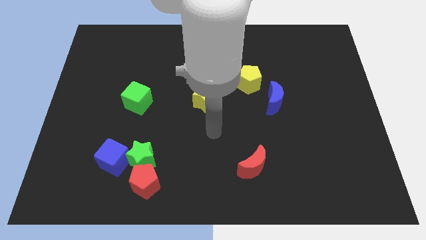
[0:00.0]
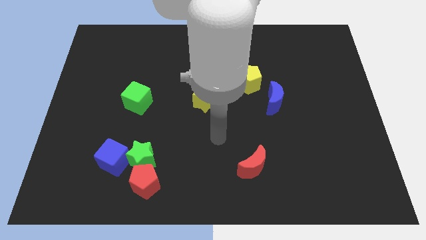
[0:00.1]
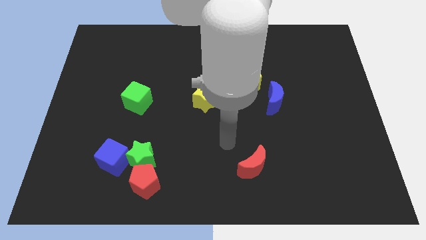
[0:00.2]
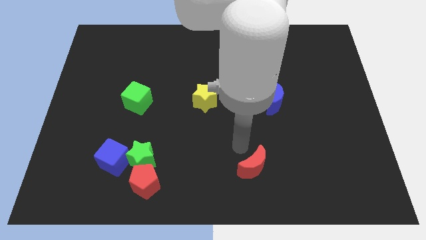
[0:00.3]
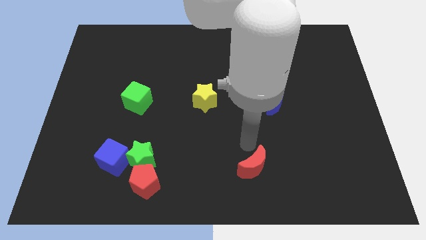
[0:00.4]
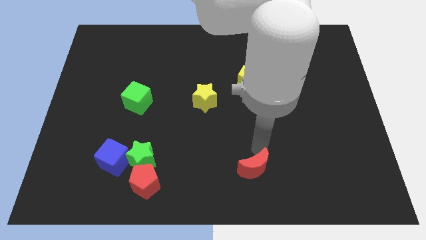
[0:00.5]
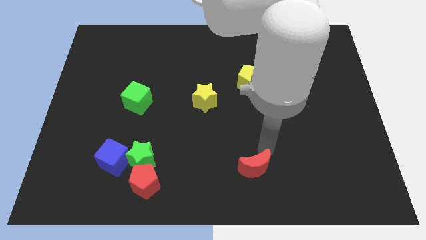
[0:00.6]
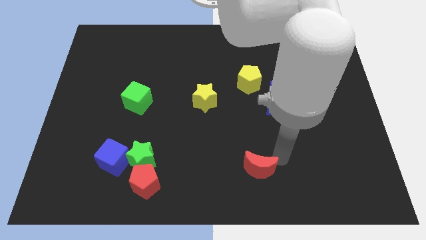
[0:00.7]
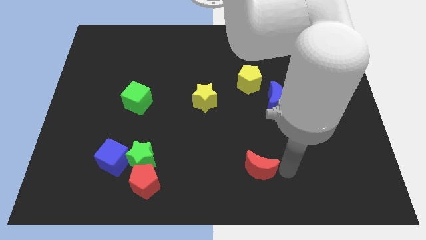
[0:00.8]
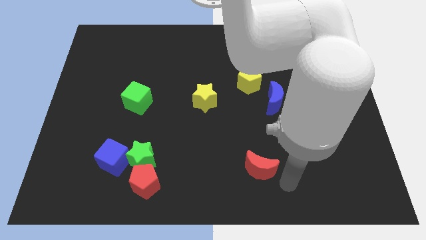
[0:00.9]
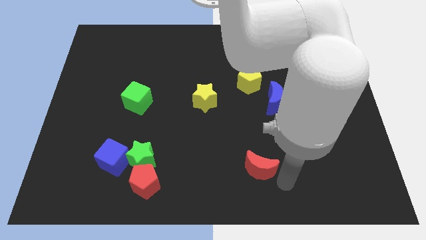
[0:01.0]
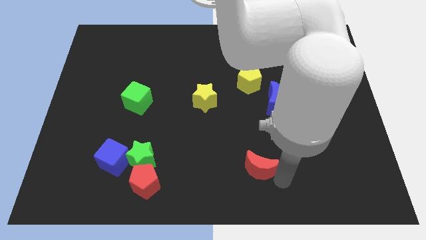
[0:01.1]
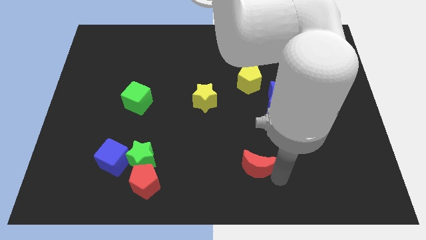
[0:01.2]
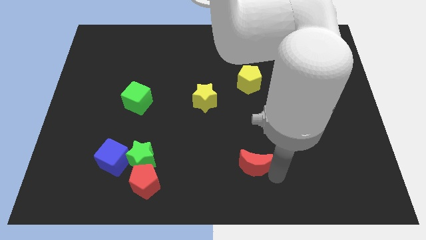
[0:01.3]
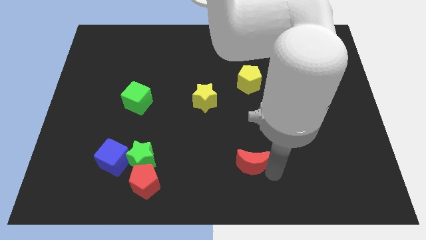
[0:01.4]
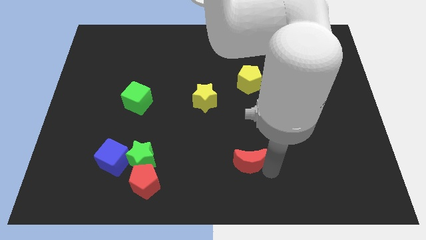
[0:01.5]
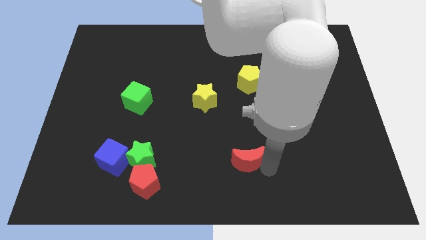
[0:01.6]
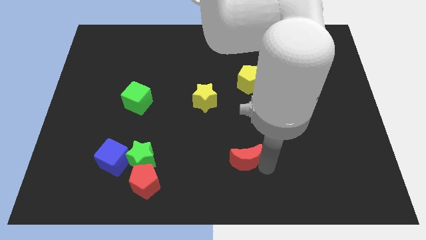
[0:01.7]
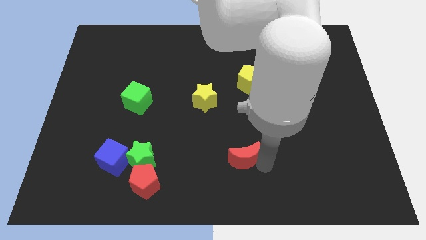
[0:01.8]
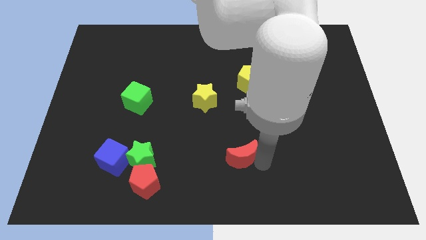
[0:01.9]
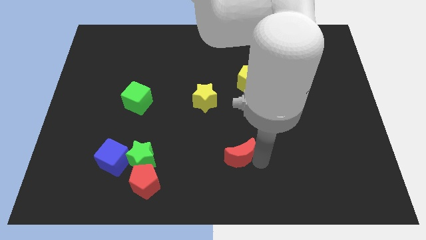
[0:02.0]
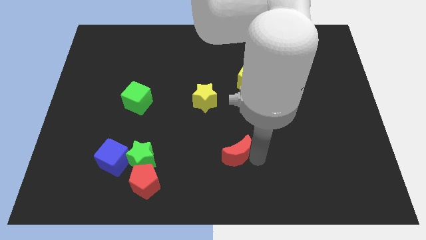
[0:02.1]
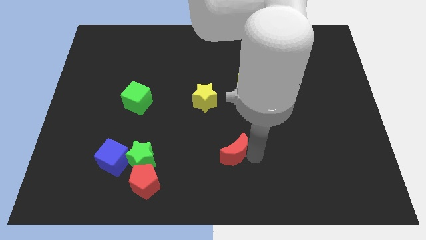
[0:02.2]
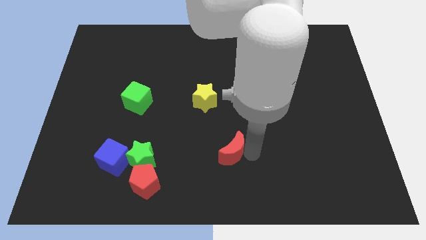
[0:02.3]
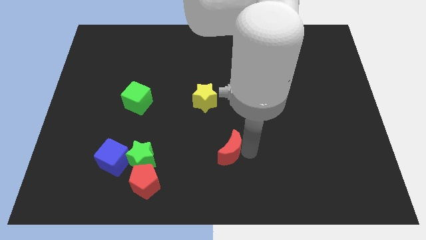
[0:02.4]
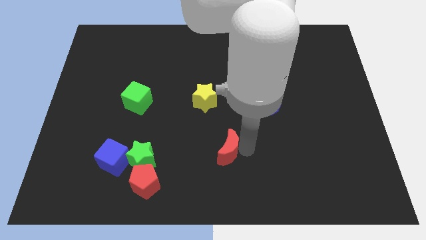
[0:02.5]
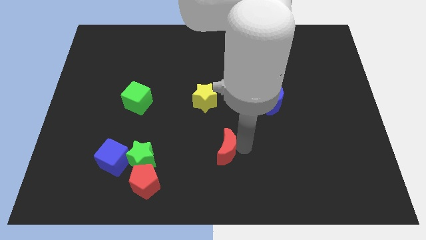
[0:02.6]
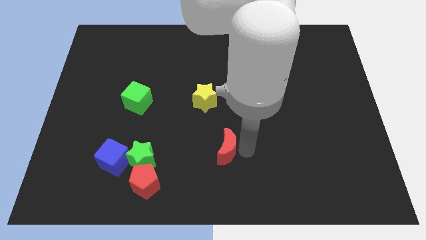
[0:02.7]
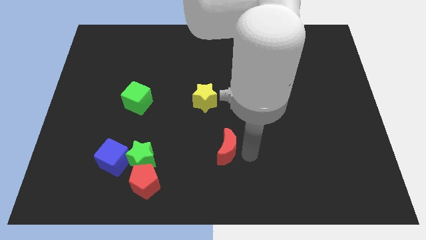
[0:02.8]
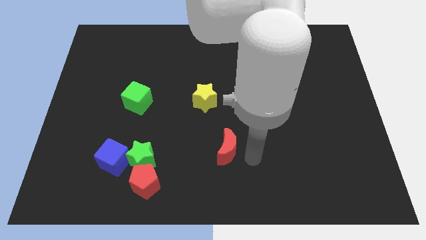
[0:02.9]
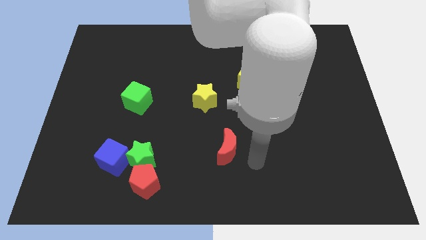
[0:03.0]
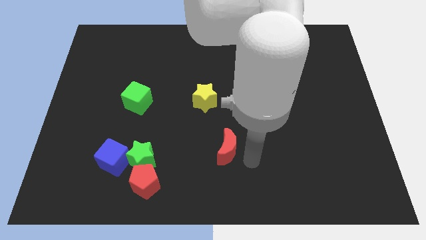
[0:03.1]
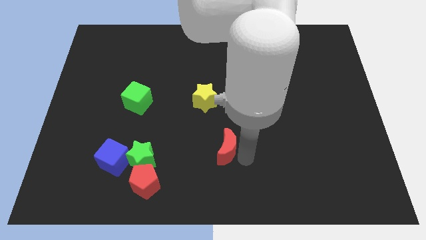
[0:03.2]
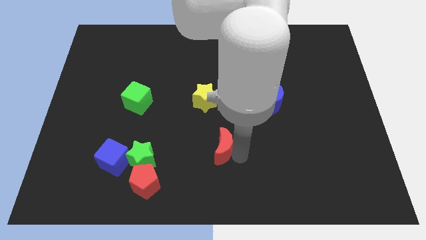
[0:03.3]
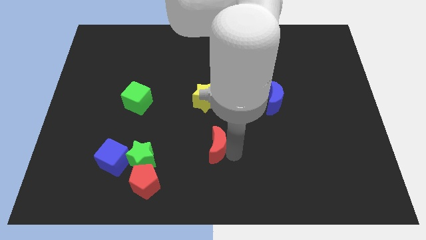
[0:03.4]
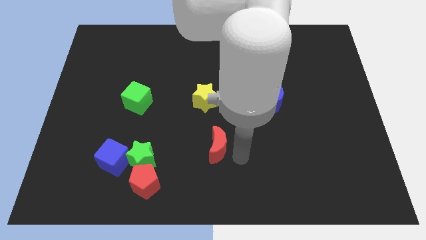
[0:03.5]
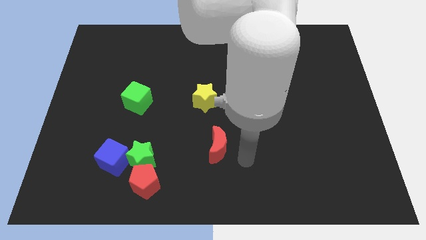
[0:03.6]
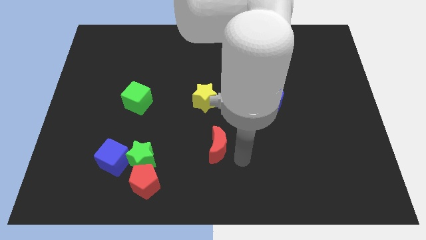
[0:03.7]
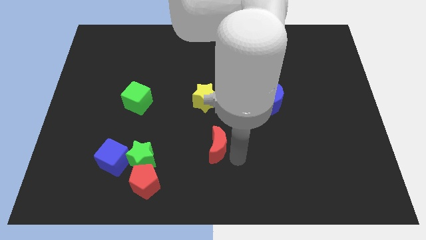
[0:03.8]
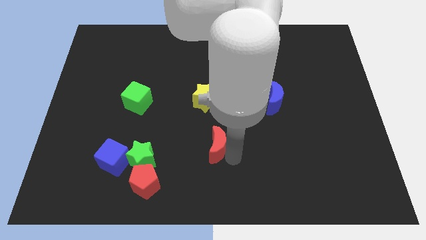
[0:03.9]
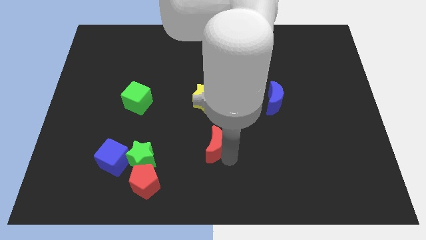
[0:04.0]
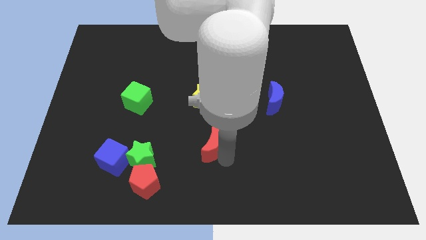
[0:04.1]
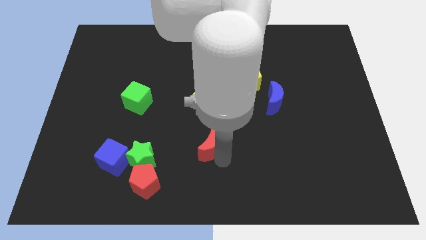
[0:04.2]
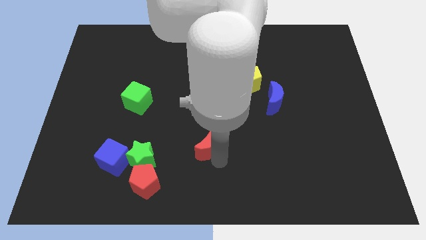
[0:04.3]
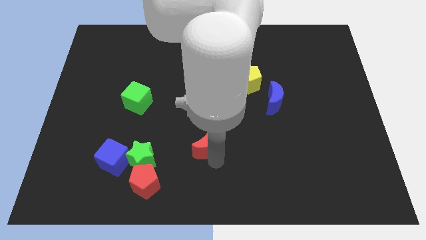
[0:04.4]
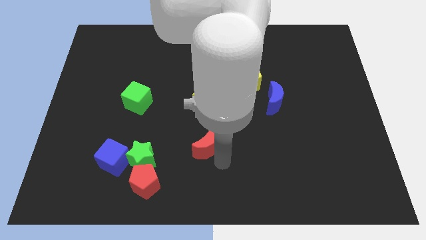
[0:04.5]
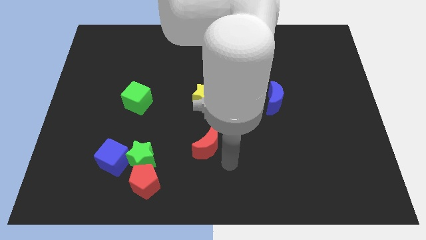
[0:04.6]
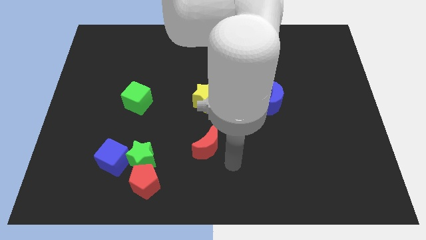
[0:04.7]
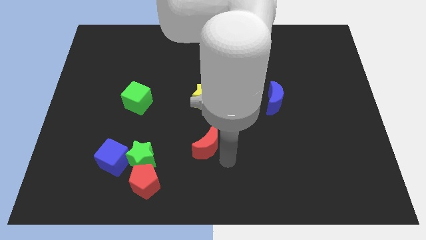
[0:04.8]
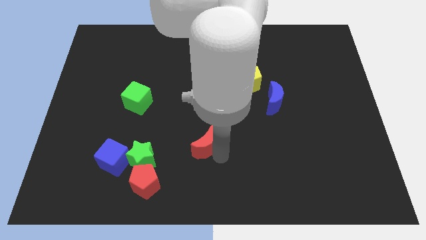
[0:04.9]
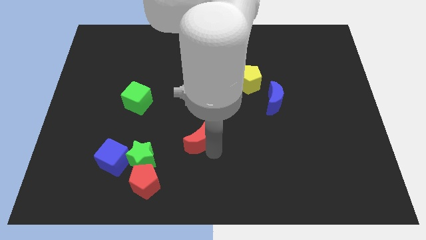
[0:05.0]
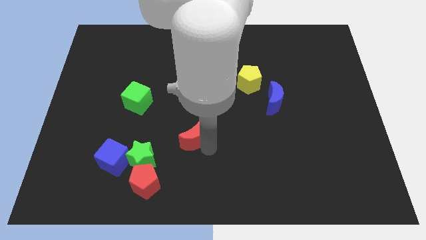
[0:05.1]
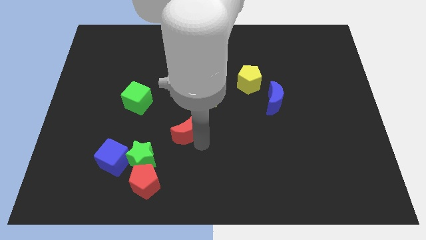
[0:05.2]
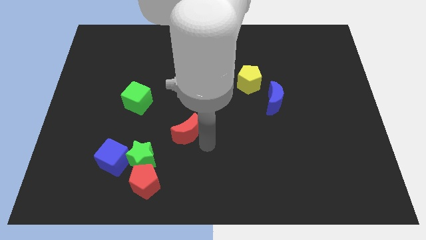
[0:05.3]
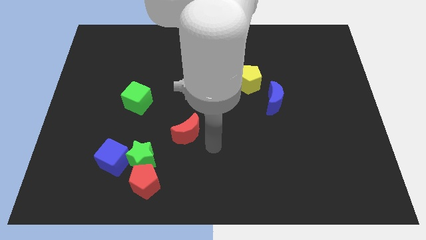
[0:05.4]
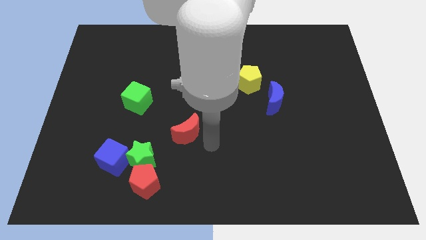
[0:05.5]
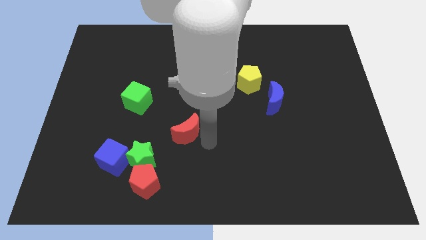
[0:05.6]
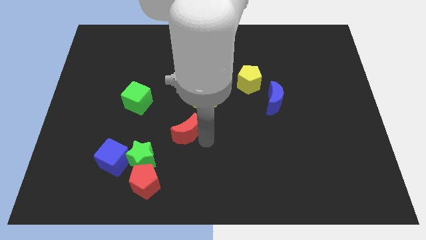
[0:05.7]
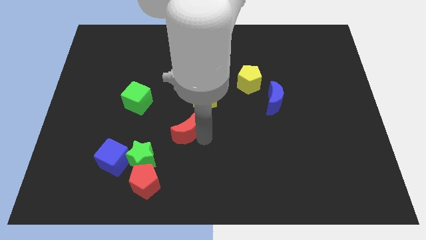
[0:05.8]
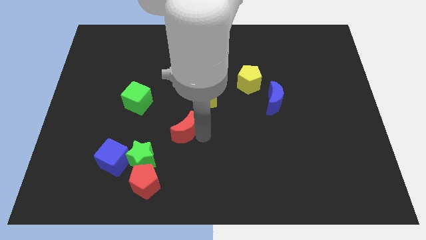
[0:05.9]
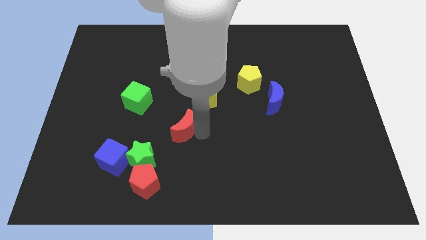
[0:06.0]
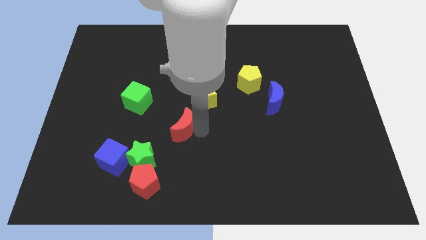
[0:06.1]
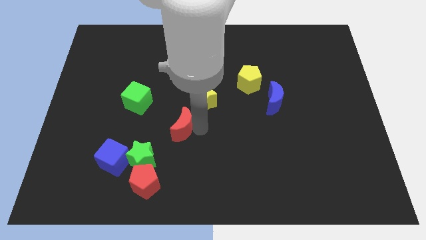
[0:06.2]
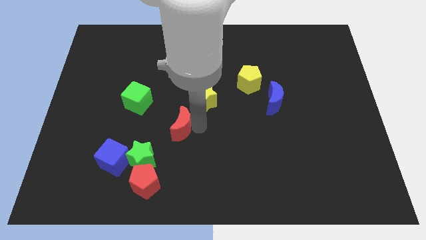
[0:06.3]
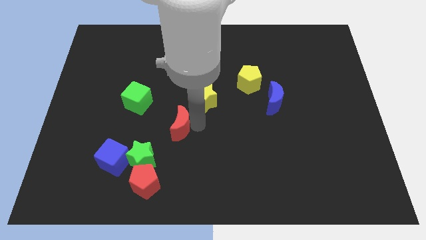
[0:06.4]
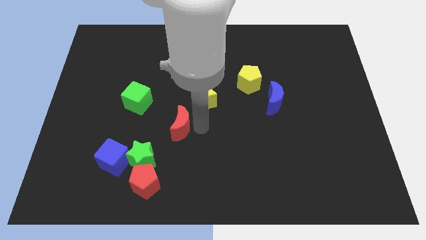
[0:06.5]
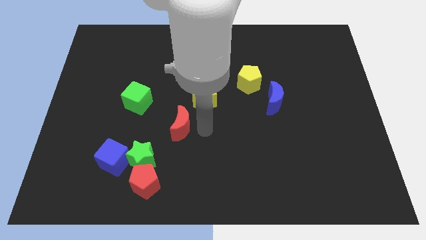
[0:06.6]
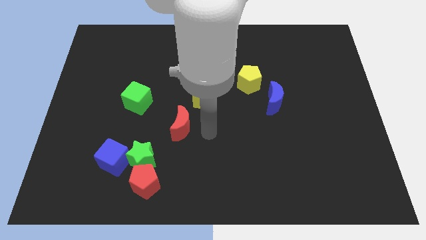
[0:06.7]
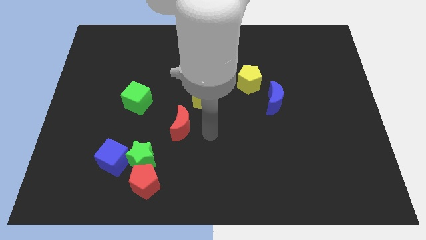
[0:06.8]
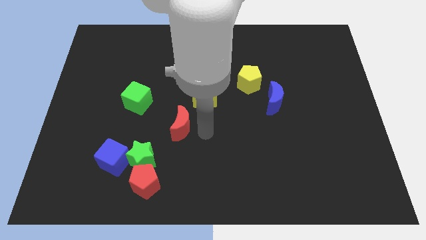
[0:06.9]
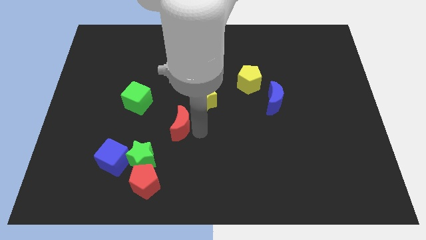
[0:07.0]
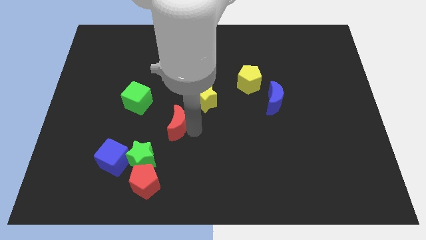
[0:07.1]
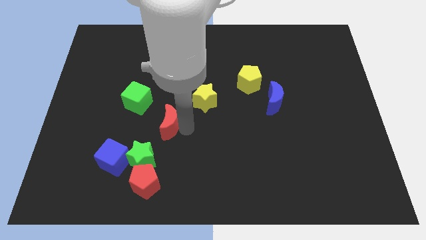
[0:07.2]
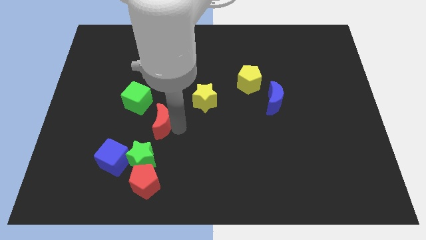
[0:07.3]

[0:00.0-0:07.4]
move the red moon to the top side of the green star
